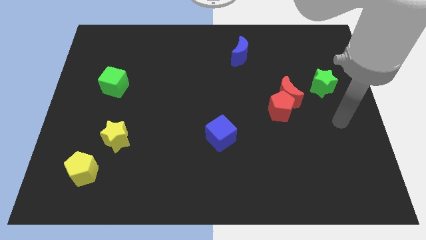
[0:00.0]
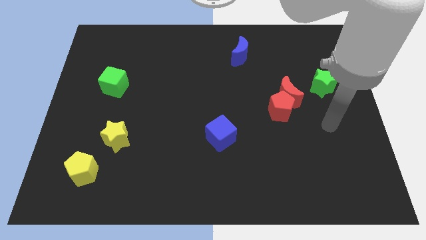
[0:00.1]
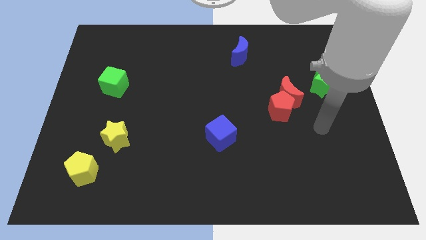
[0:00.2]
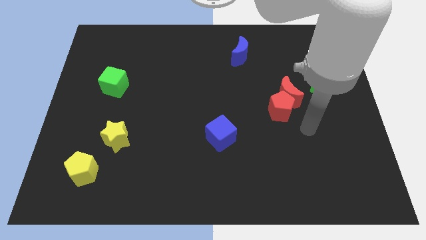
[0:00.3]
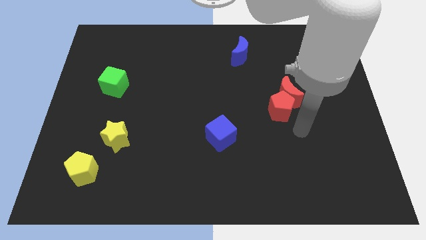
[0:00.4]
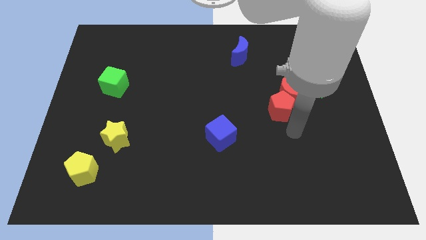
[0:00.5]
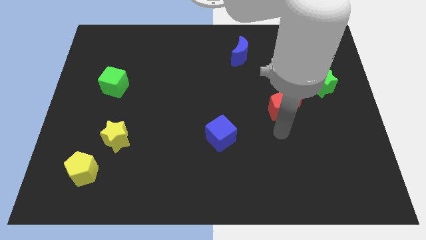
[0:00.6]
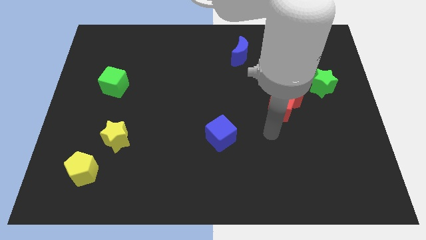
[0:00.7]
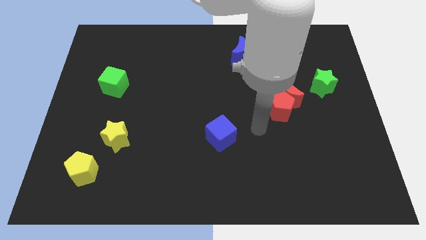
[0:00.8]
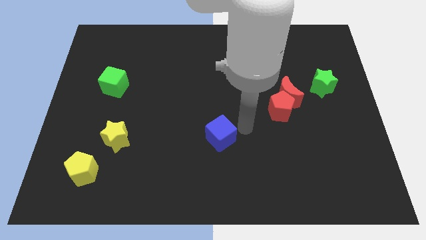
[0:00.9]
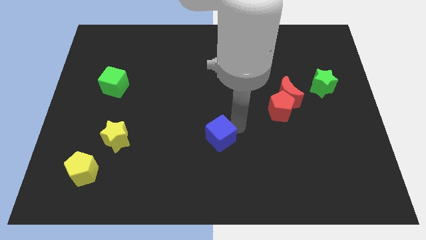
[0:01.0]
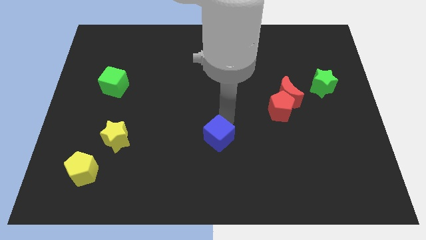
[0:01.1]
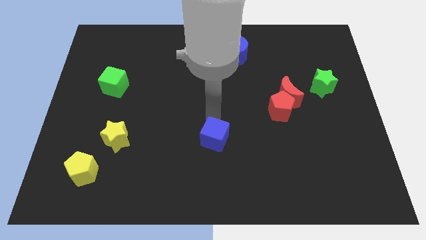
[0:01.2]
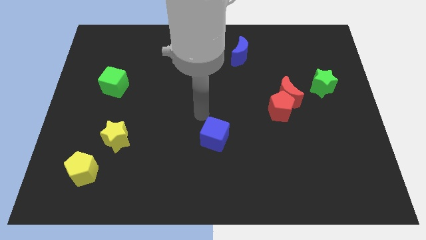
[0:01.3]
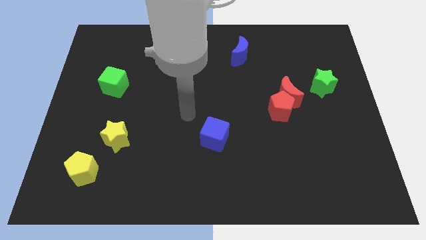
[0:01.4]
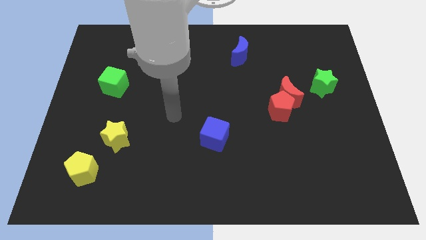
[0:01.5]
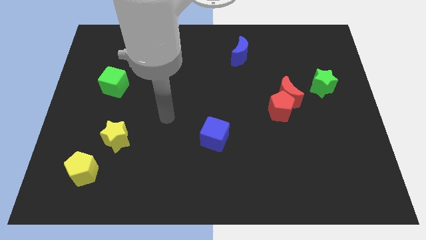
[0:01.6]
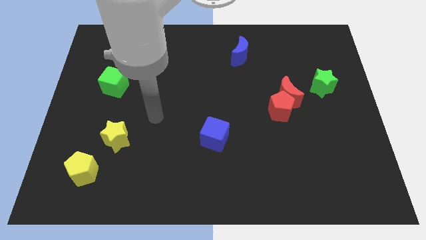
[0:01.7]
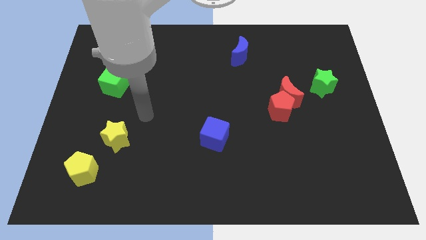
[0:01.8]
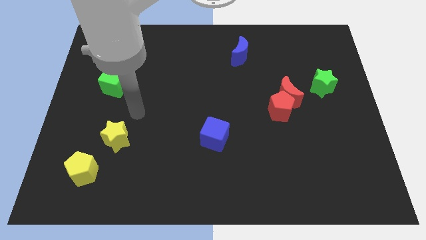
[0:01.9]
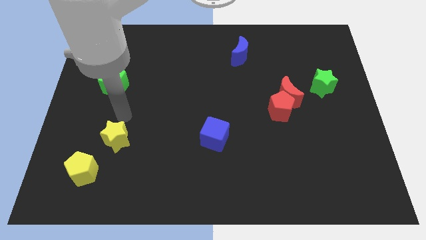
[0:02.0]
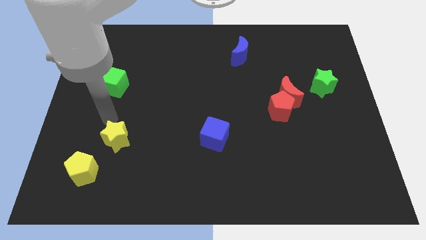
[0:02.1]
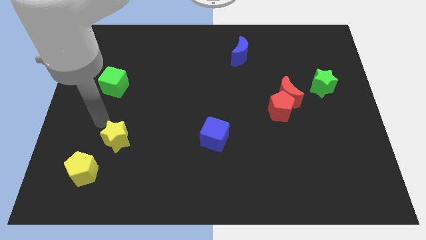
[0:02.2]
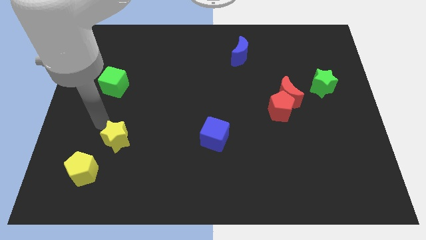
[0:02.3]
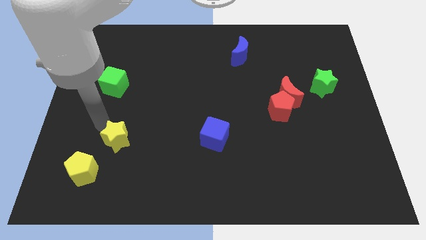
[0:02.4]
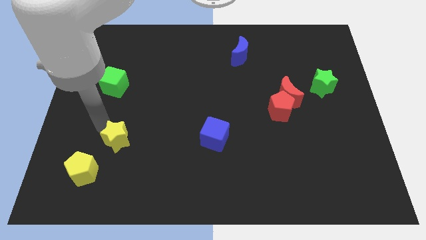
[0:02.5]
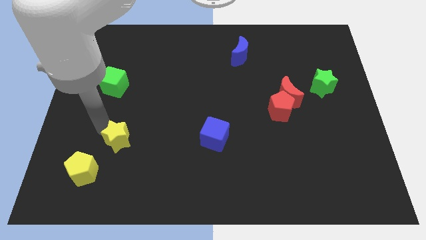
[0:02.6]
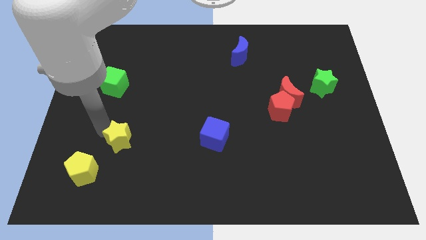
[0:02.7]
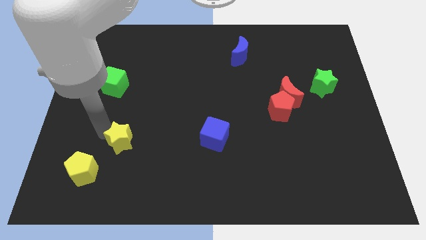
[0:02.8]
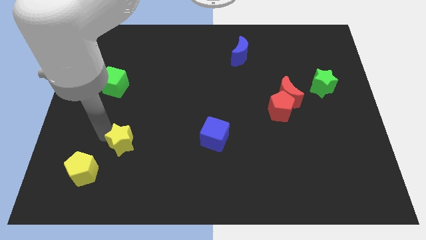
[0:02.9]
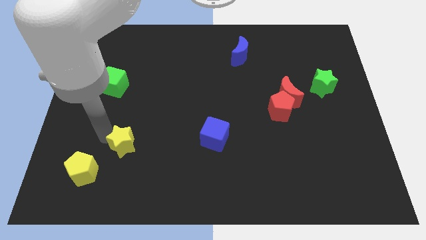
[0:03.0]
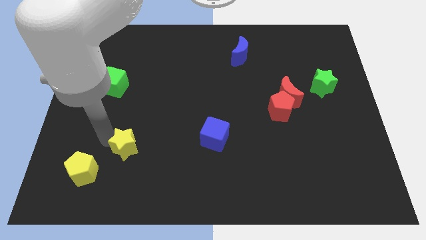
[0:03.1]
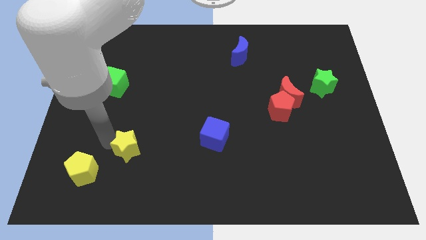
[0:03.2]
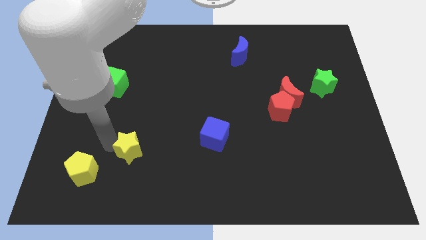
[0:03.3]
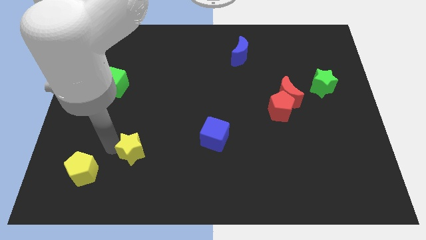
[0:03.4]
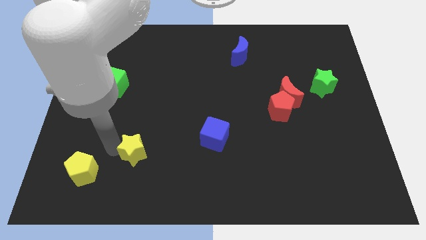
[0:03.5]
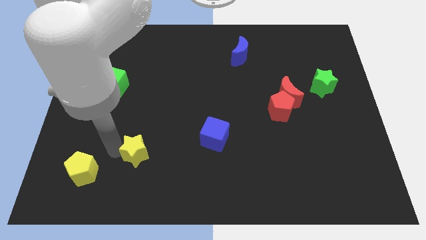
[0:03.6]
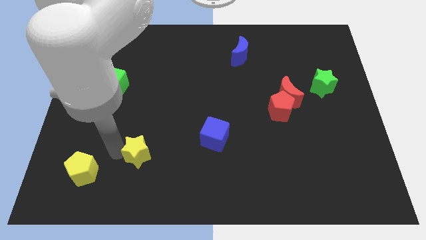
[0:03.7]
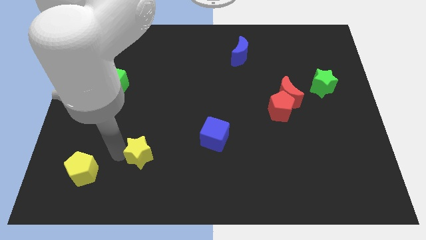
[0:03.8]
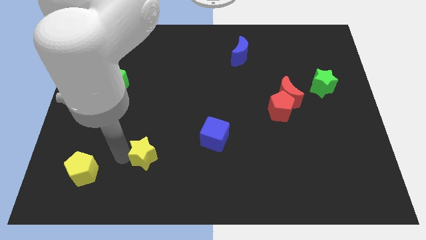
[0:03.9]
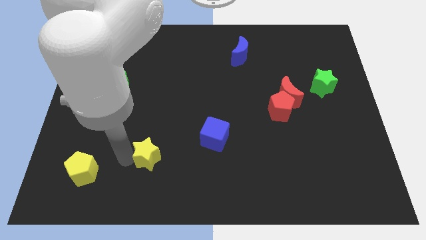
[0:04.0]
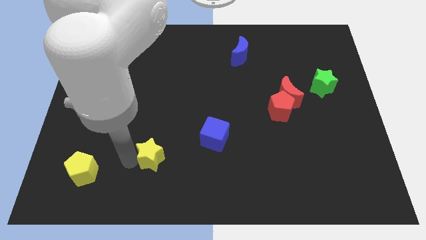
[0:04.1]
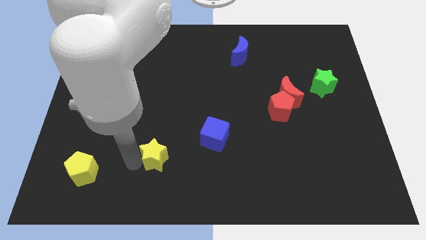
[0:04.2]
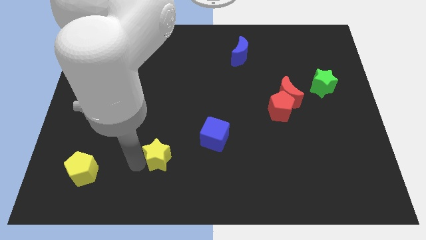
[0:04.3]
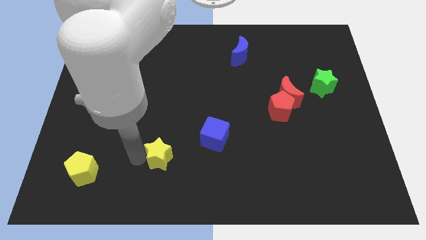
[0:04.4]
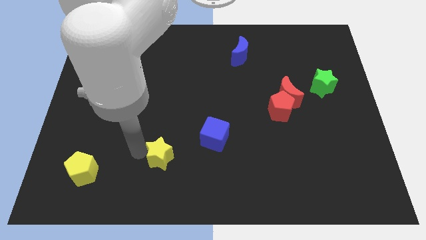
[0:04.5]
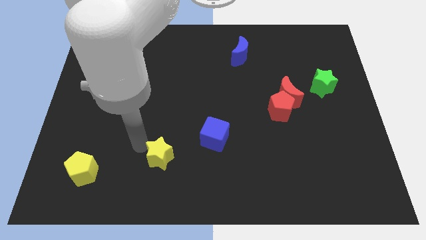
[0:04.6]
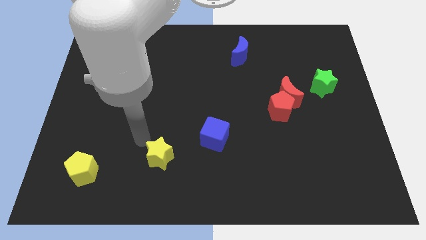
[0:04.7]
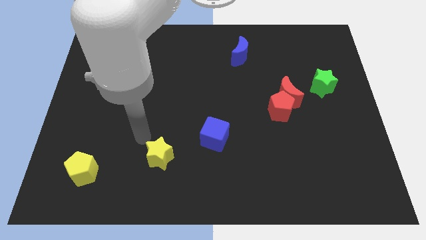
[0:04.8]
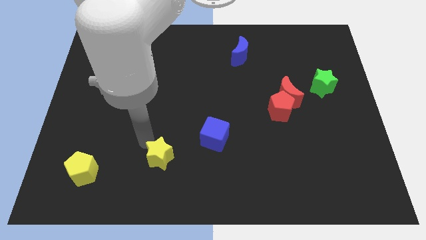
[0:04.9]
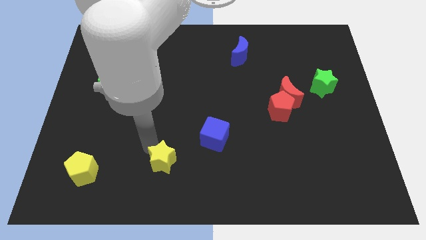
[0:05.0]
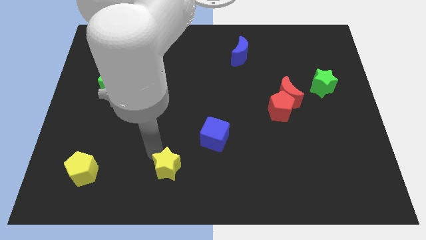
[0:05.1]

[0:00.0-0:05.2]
slide the yellow star to the bottom side

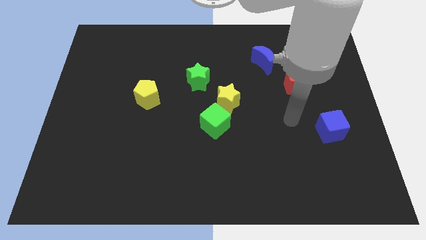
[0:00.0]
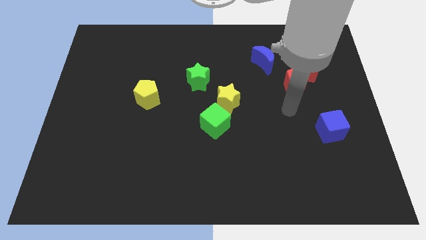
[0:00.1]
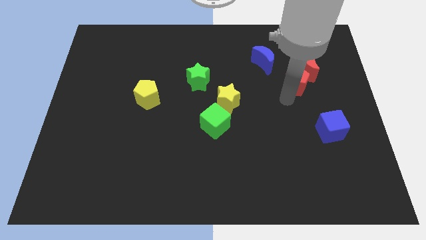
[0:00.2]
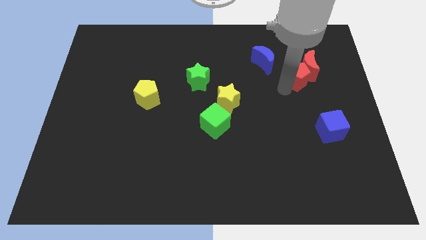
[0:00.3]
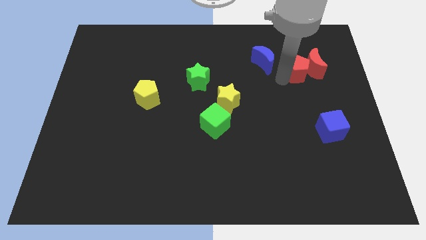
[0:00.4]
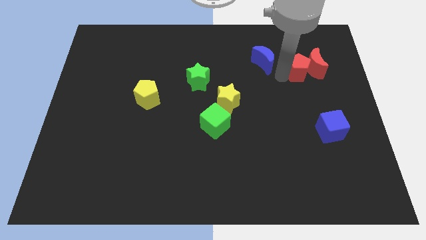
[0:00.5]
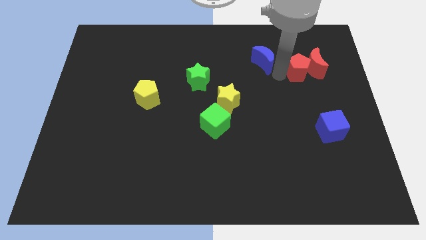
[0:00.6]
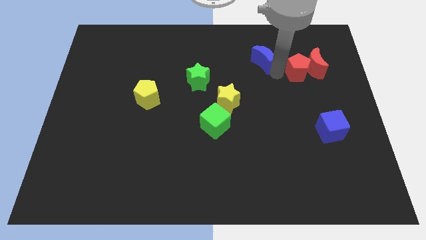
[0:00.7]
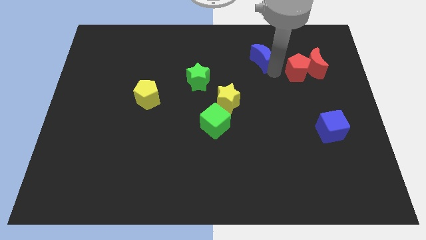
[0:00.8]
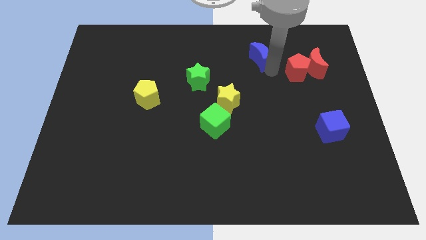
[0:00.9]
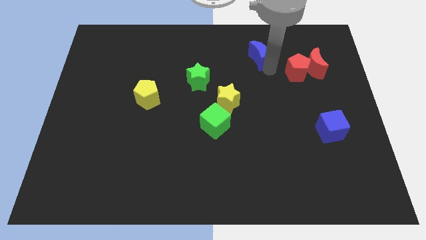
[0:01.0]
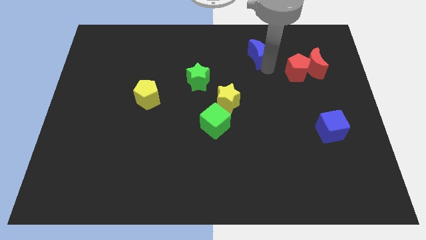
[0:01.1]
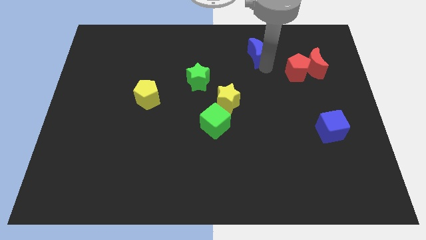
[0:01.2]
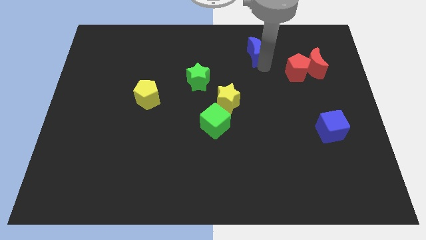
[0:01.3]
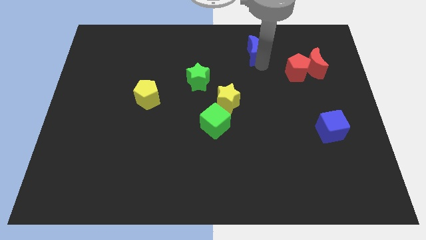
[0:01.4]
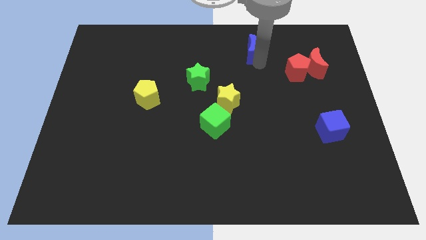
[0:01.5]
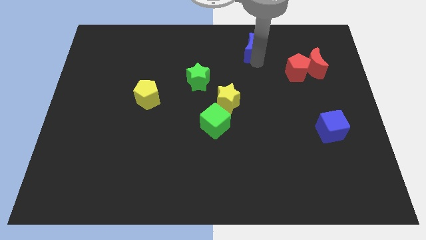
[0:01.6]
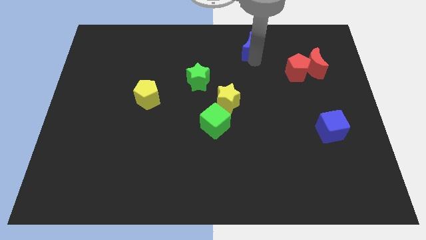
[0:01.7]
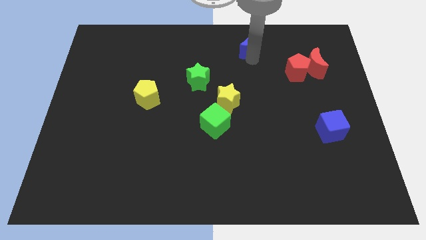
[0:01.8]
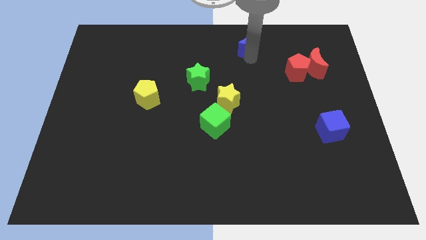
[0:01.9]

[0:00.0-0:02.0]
put the blue moon to the top side
